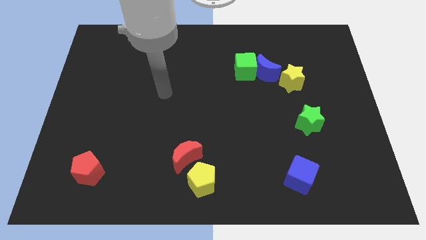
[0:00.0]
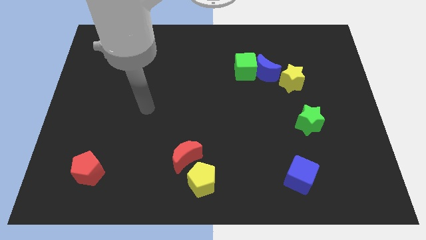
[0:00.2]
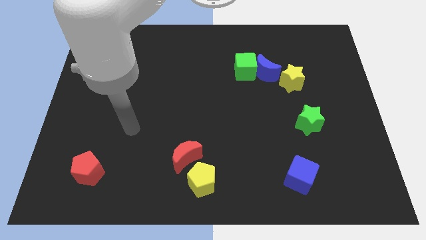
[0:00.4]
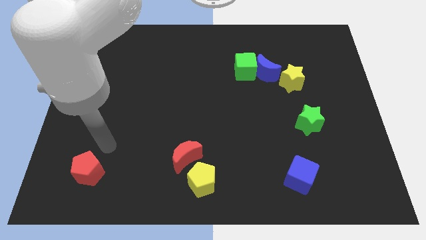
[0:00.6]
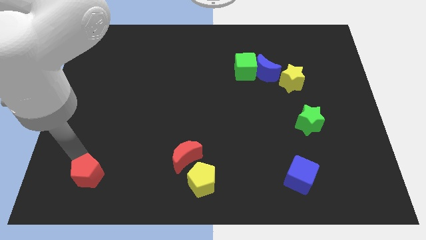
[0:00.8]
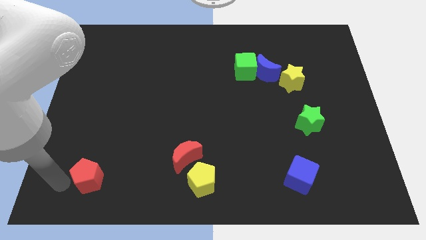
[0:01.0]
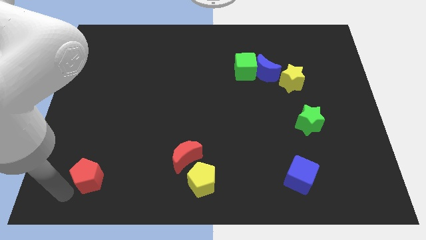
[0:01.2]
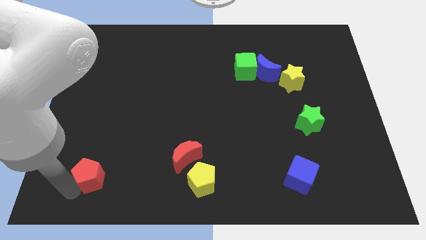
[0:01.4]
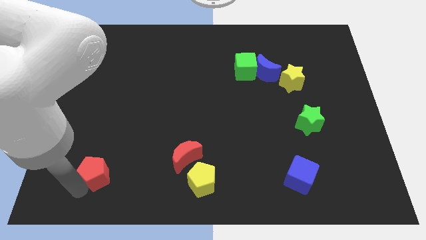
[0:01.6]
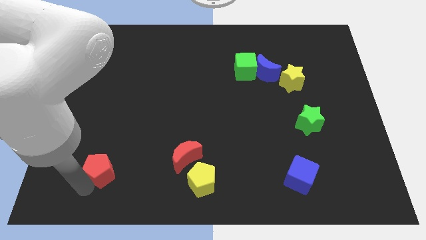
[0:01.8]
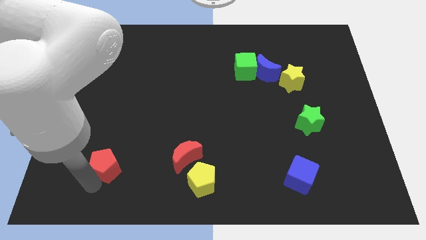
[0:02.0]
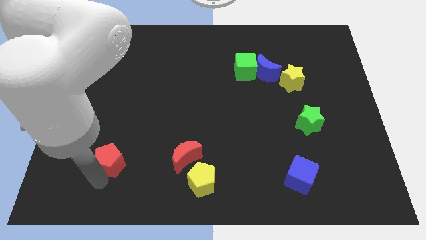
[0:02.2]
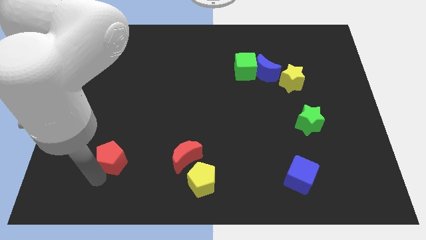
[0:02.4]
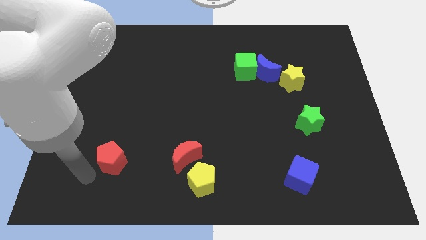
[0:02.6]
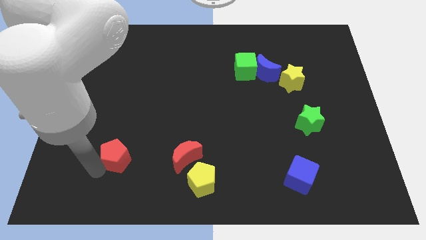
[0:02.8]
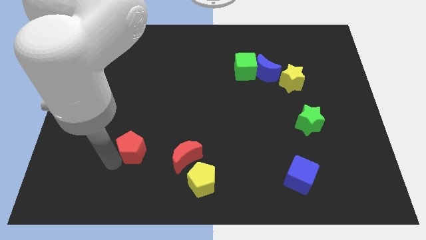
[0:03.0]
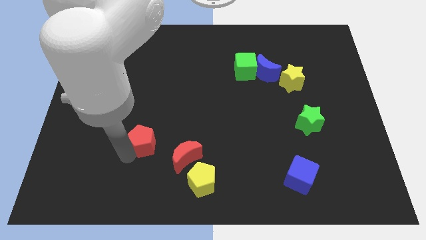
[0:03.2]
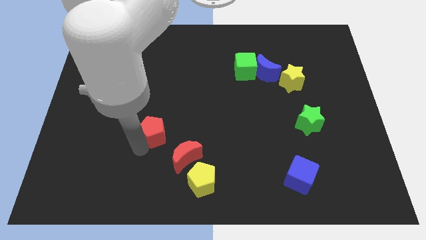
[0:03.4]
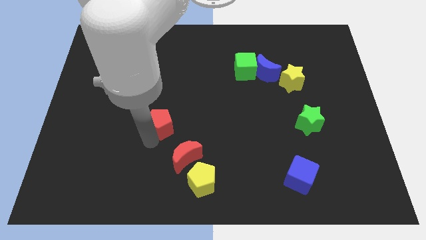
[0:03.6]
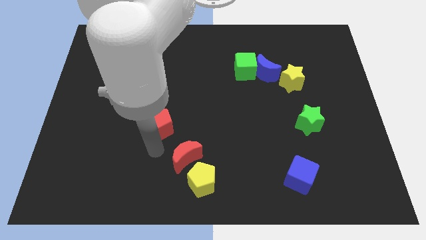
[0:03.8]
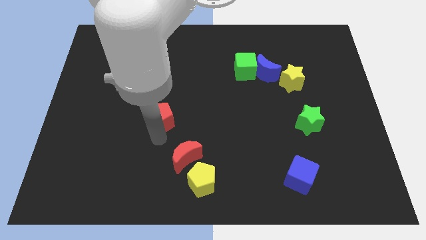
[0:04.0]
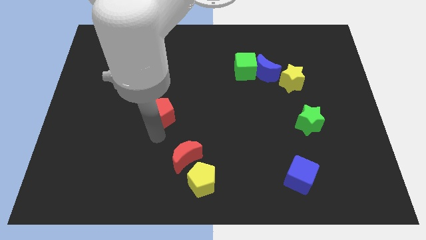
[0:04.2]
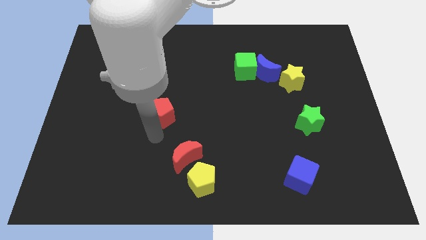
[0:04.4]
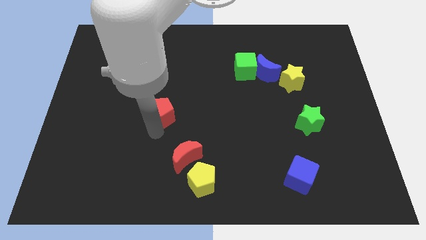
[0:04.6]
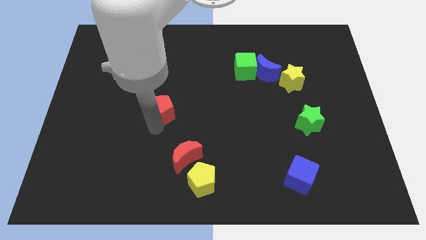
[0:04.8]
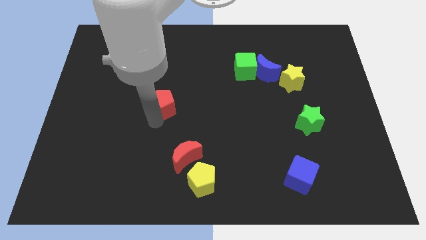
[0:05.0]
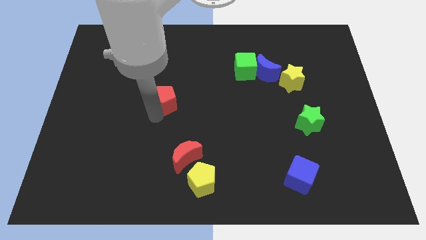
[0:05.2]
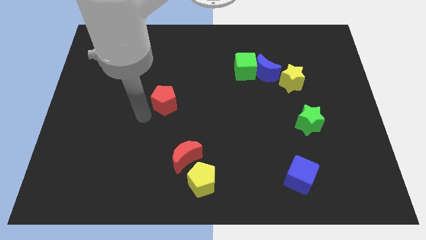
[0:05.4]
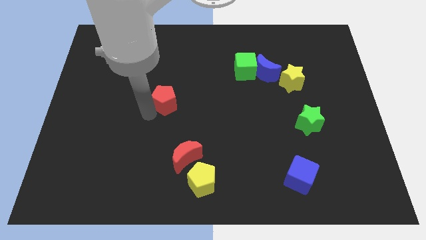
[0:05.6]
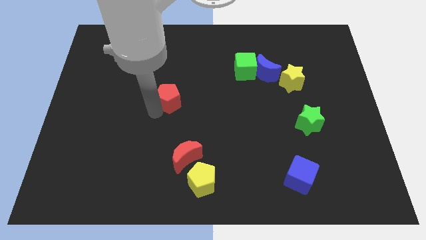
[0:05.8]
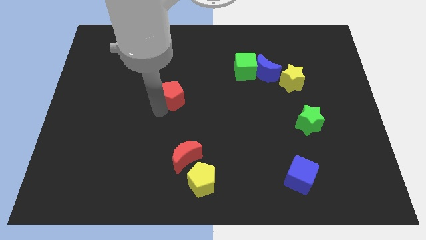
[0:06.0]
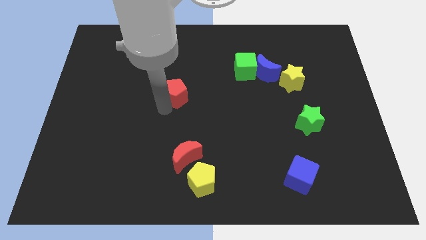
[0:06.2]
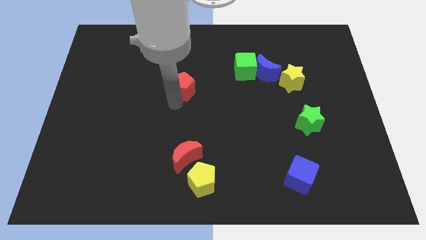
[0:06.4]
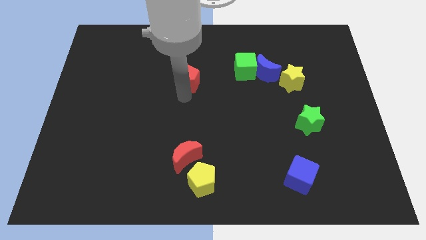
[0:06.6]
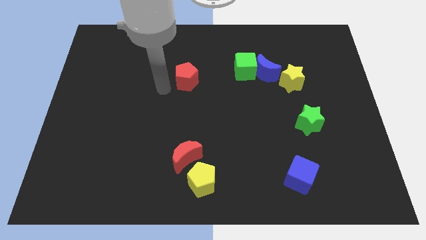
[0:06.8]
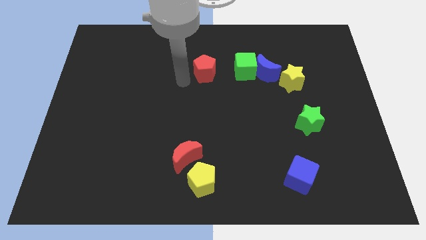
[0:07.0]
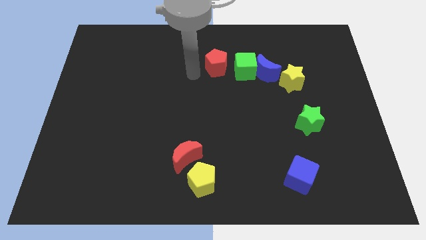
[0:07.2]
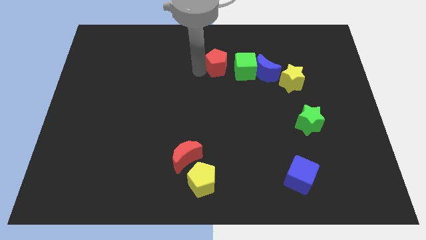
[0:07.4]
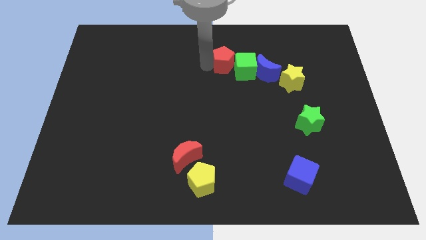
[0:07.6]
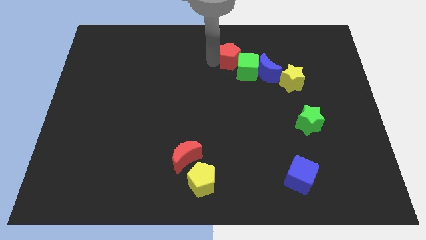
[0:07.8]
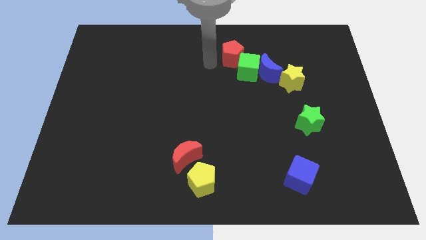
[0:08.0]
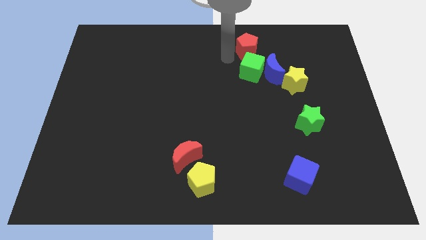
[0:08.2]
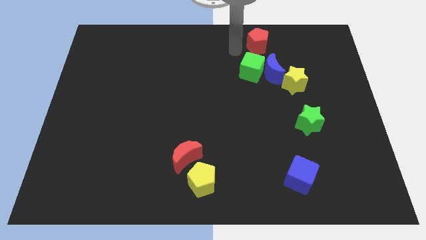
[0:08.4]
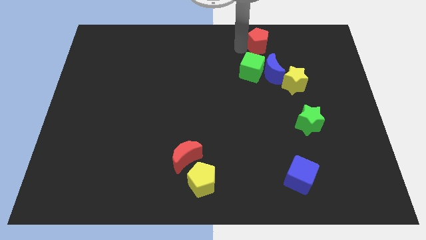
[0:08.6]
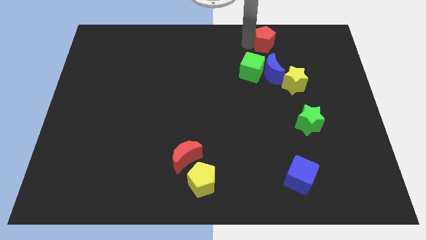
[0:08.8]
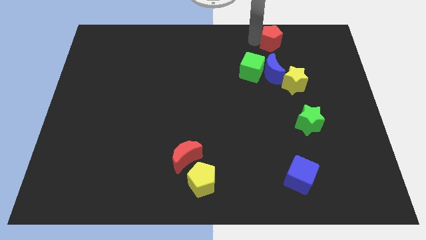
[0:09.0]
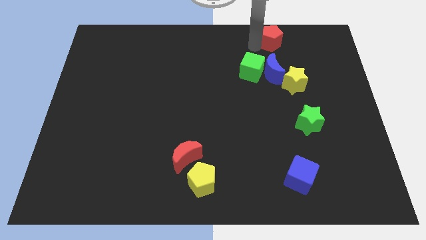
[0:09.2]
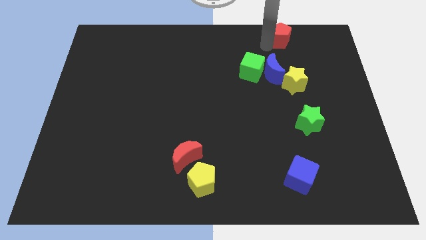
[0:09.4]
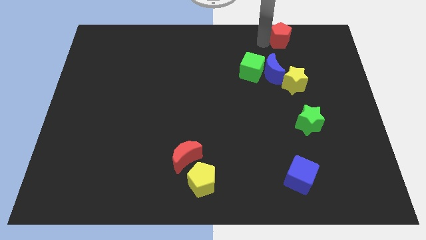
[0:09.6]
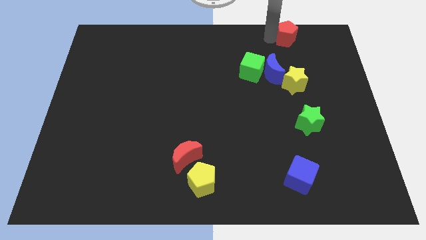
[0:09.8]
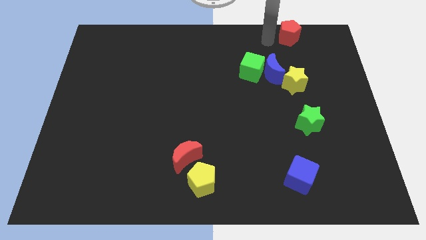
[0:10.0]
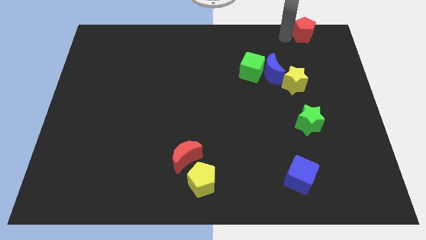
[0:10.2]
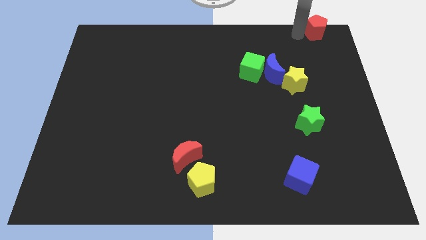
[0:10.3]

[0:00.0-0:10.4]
put the red pentagon to the upper right corner
